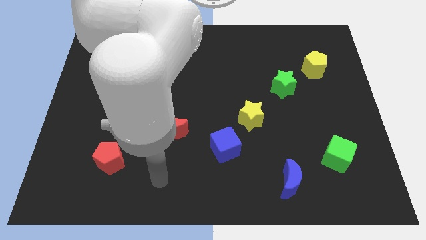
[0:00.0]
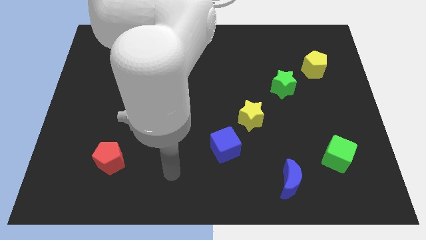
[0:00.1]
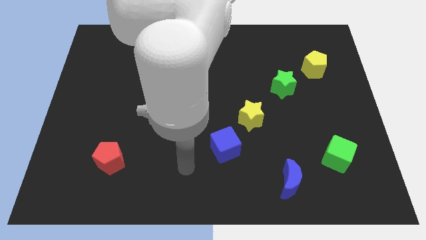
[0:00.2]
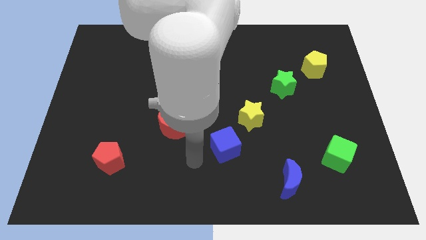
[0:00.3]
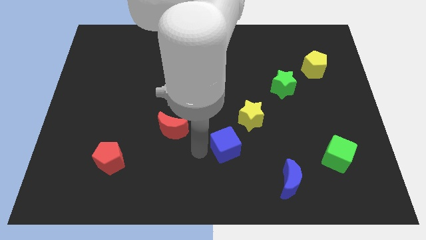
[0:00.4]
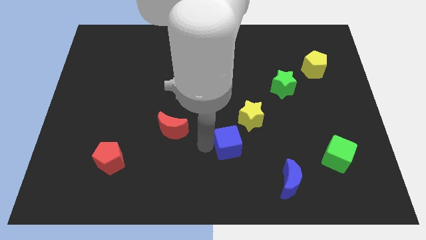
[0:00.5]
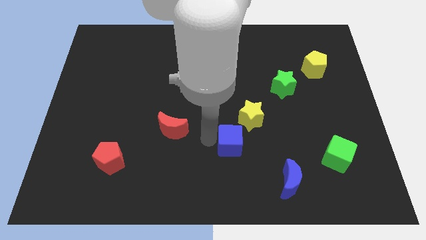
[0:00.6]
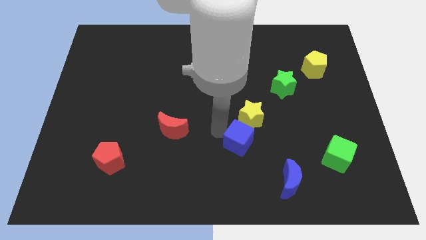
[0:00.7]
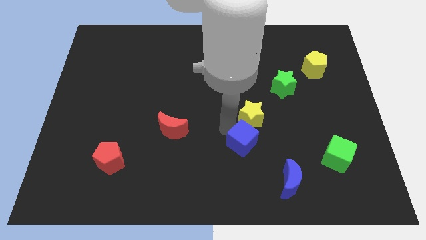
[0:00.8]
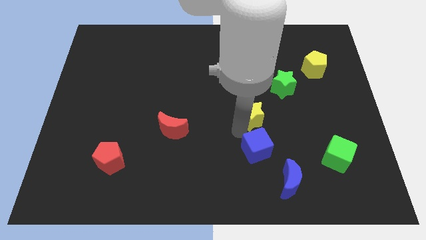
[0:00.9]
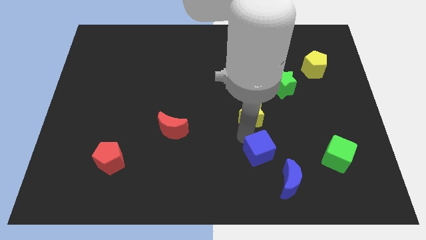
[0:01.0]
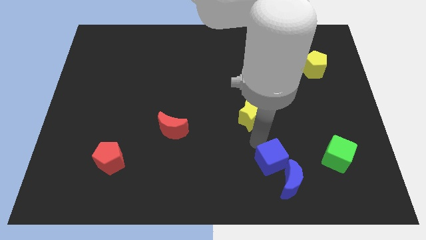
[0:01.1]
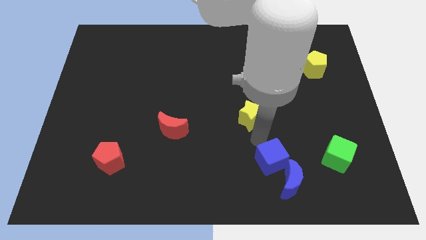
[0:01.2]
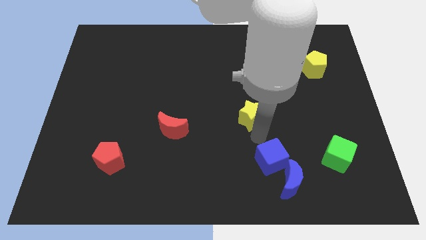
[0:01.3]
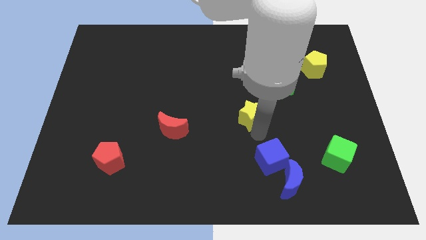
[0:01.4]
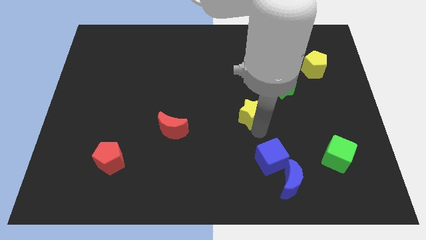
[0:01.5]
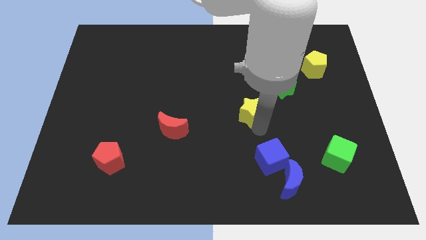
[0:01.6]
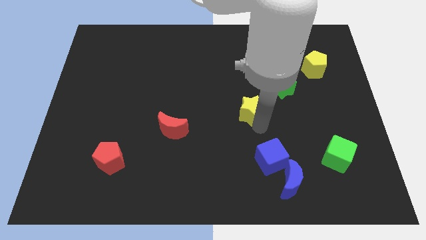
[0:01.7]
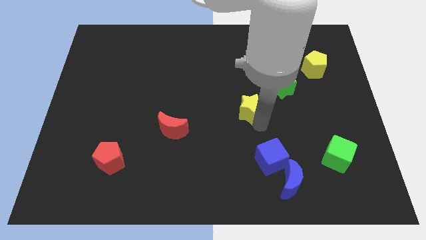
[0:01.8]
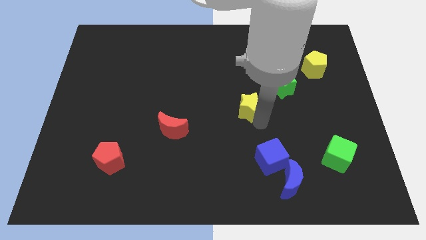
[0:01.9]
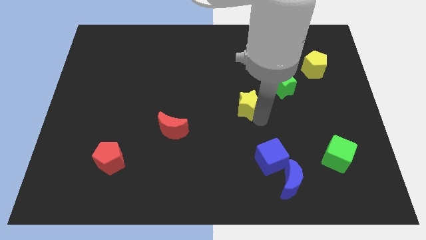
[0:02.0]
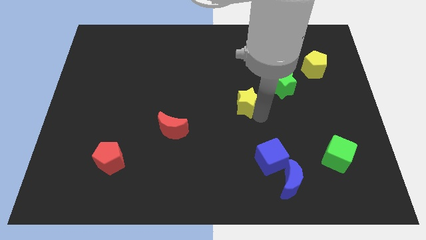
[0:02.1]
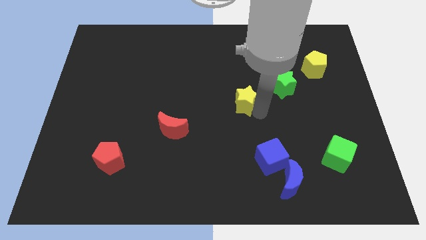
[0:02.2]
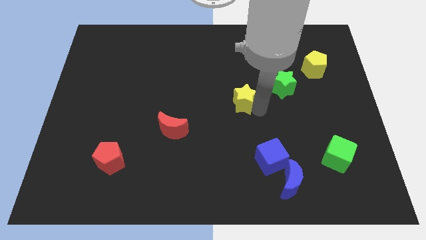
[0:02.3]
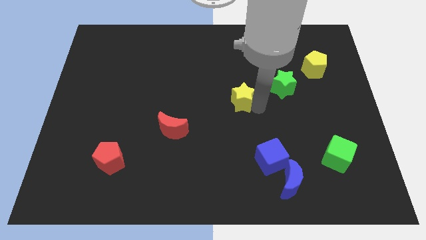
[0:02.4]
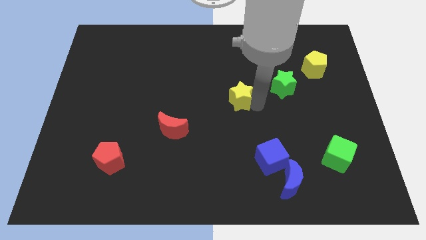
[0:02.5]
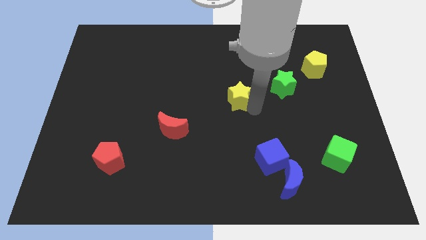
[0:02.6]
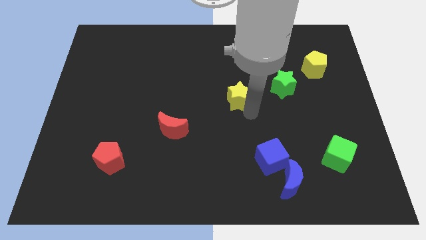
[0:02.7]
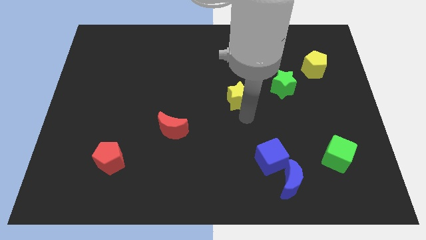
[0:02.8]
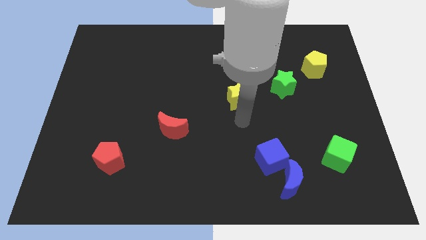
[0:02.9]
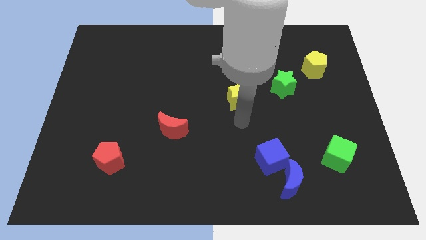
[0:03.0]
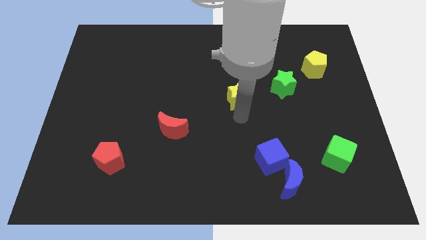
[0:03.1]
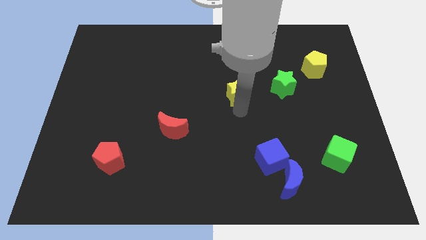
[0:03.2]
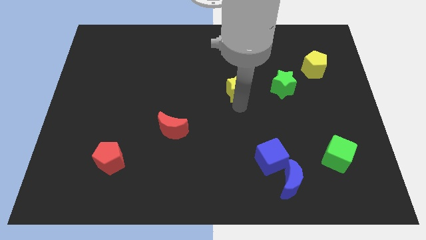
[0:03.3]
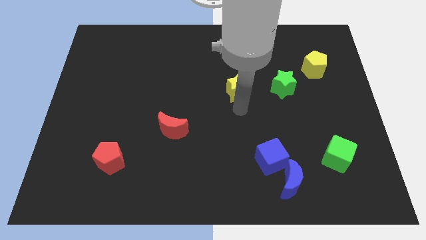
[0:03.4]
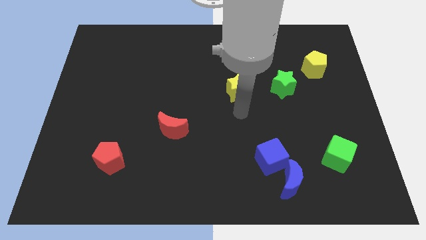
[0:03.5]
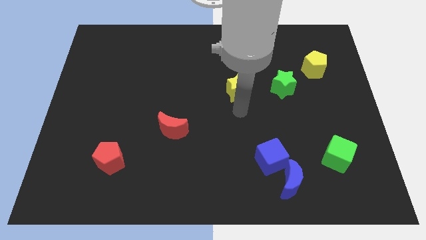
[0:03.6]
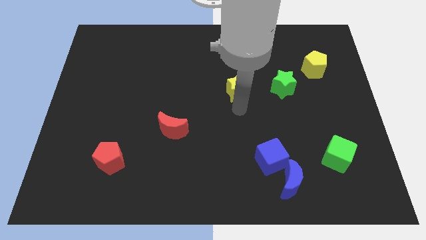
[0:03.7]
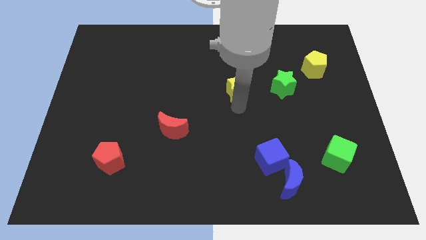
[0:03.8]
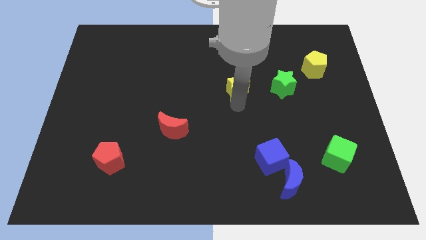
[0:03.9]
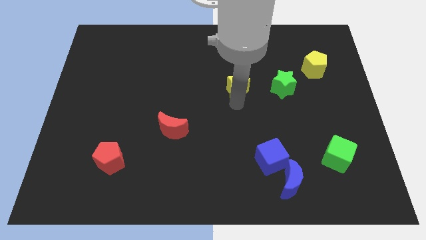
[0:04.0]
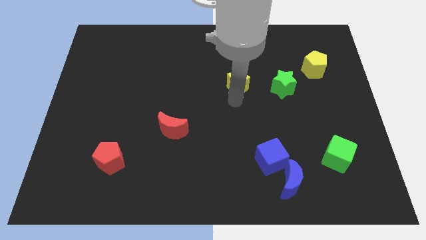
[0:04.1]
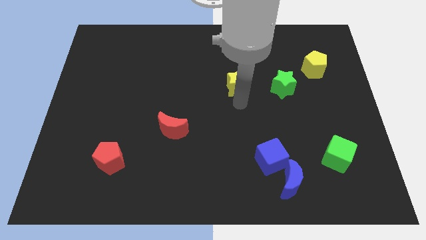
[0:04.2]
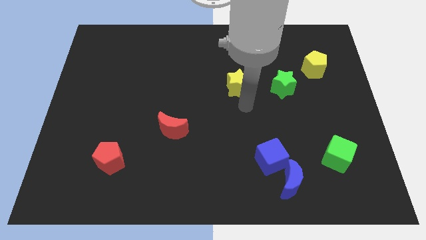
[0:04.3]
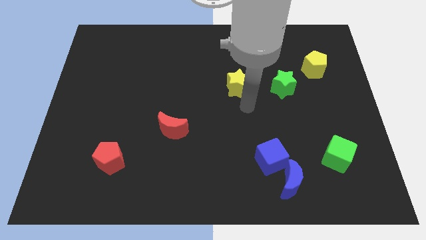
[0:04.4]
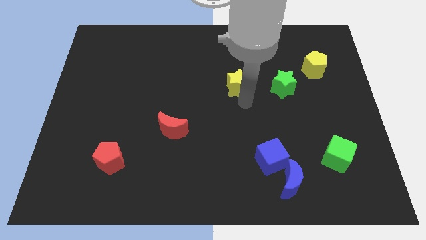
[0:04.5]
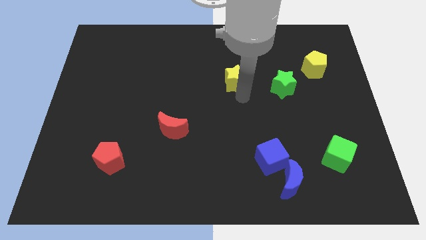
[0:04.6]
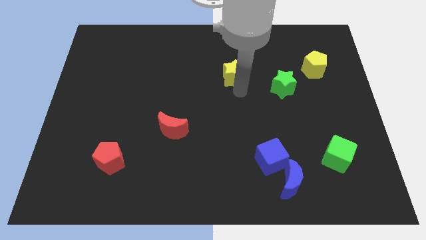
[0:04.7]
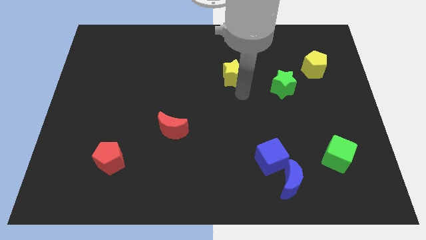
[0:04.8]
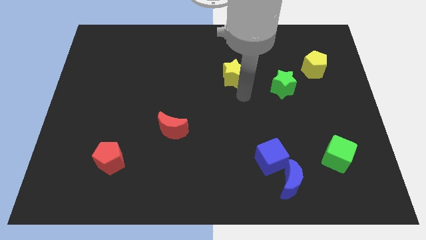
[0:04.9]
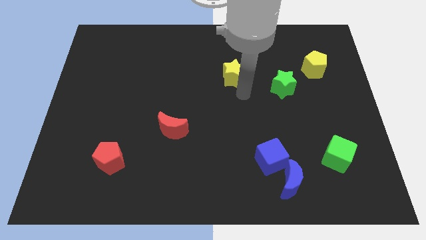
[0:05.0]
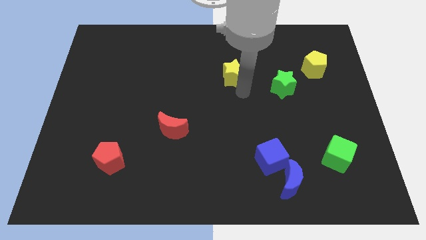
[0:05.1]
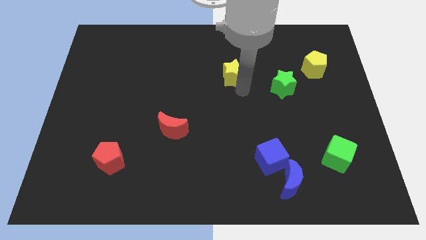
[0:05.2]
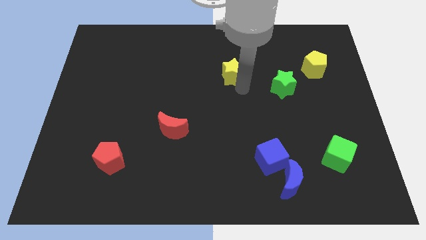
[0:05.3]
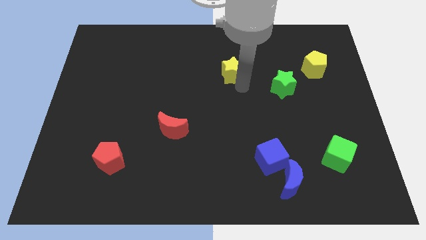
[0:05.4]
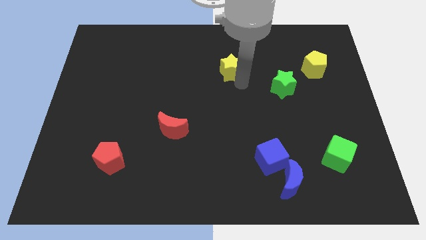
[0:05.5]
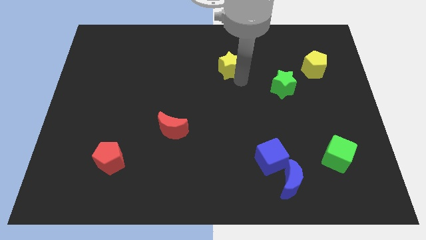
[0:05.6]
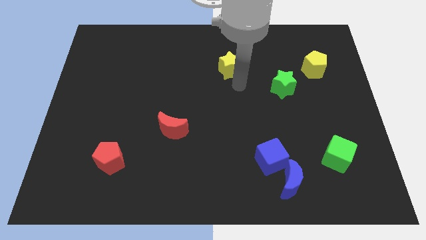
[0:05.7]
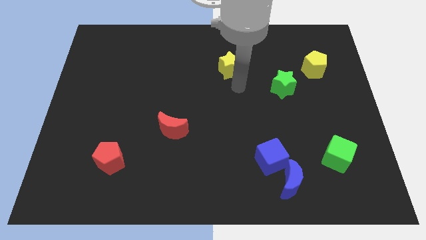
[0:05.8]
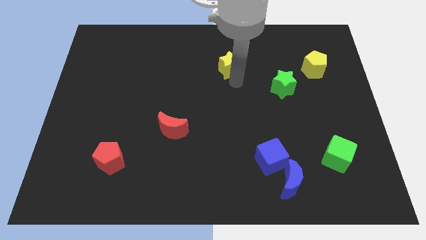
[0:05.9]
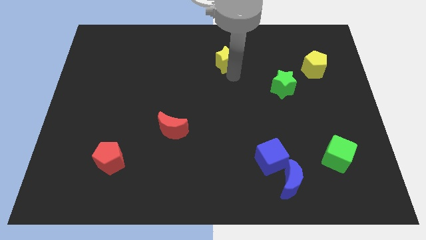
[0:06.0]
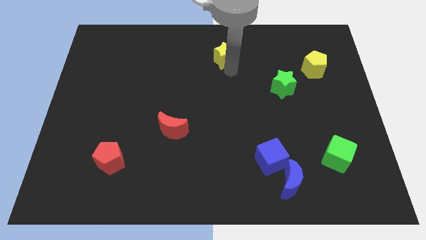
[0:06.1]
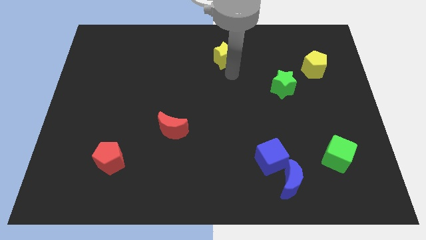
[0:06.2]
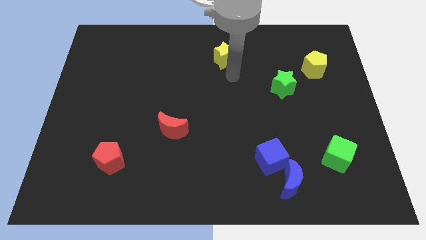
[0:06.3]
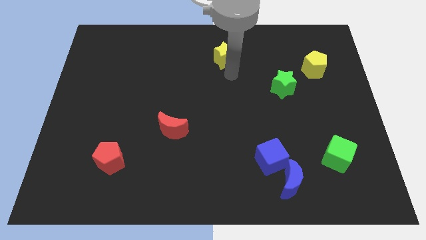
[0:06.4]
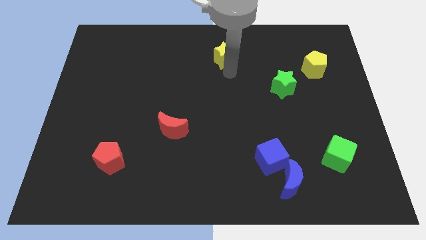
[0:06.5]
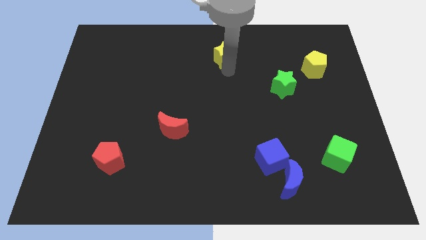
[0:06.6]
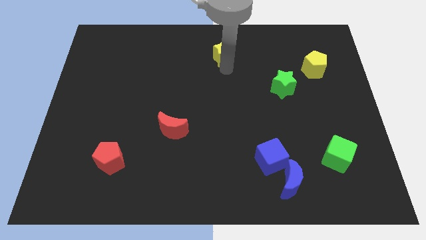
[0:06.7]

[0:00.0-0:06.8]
put the yellow star to the top
